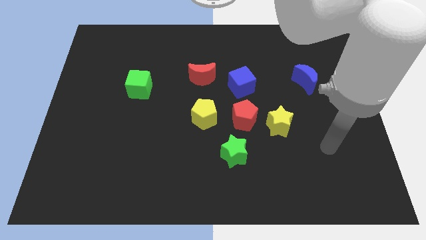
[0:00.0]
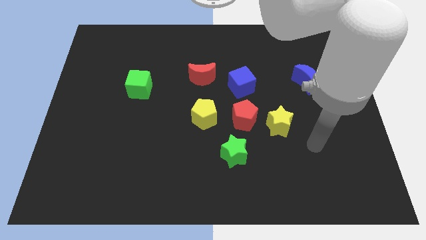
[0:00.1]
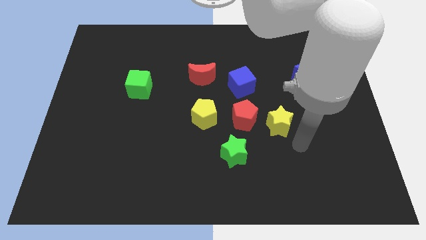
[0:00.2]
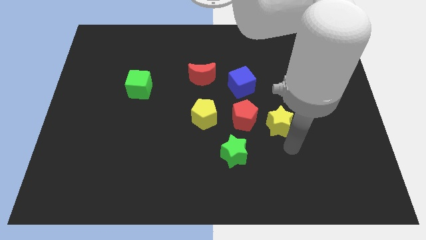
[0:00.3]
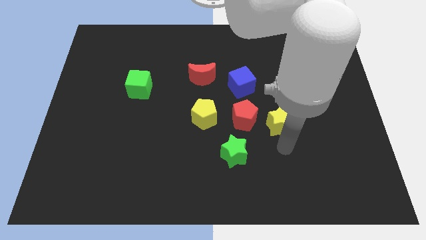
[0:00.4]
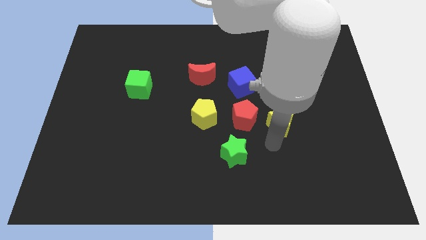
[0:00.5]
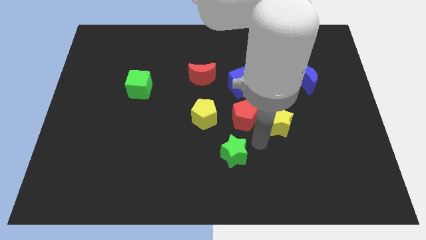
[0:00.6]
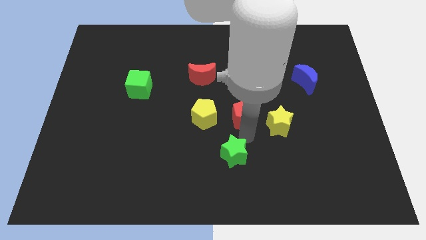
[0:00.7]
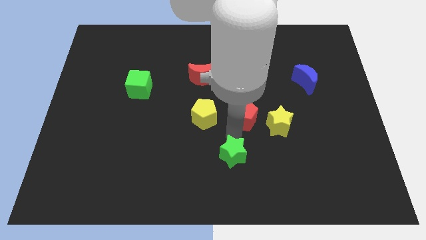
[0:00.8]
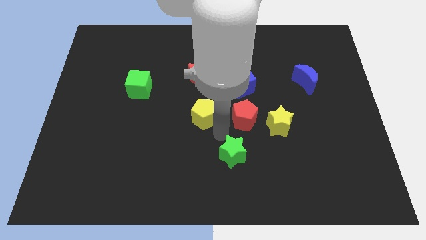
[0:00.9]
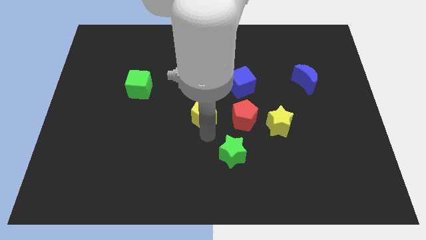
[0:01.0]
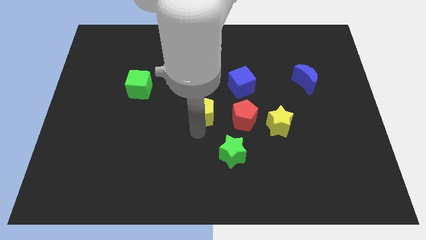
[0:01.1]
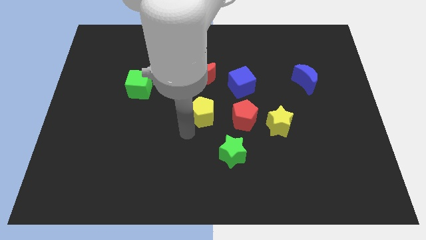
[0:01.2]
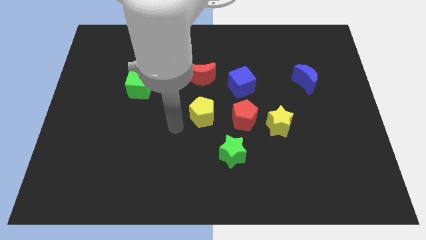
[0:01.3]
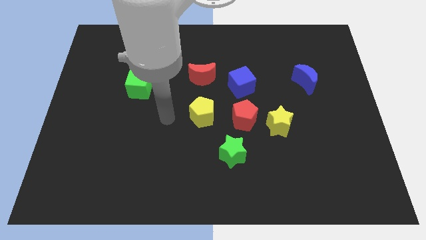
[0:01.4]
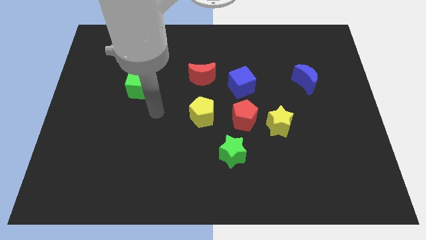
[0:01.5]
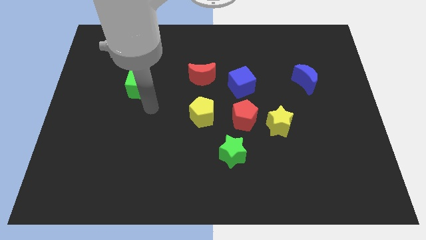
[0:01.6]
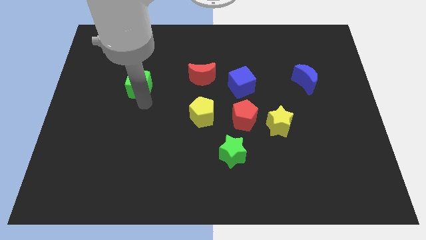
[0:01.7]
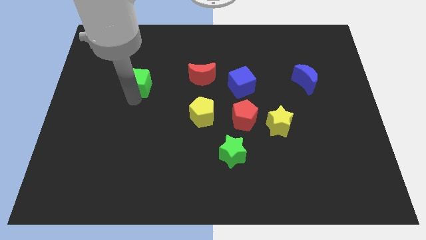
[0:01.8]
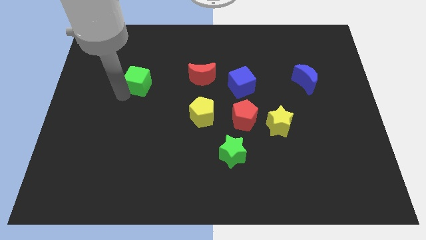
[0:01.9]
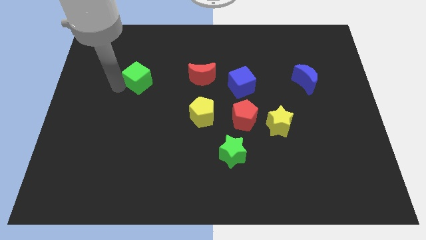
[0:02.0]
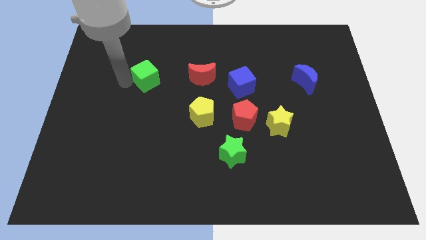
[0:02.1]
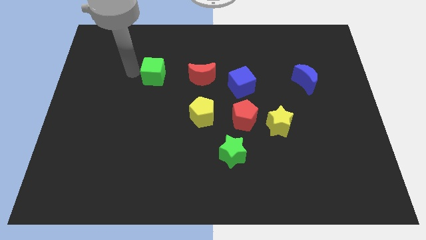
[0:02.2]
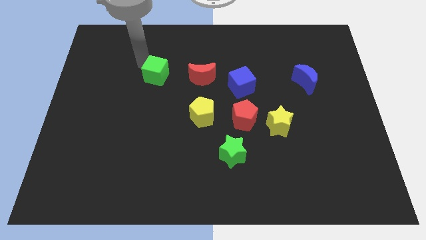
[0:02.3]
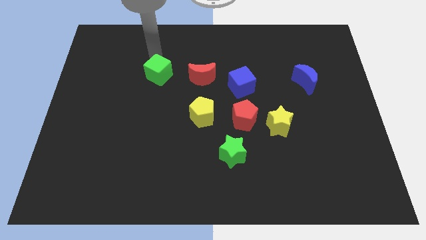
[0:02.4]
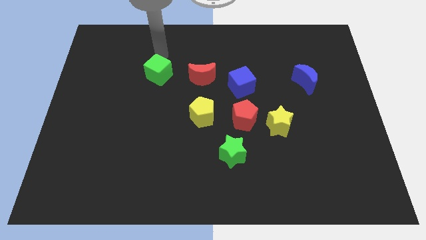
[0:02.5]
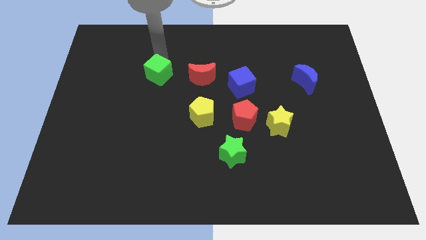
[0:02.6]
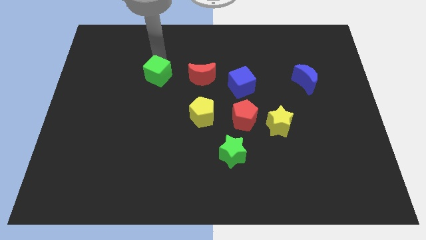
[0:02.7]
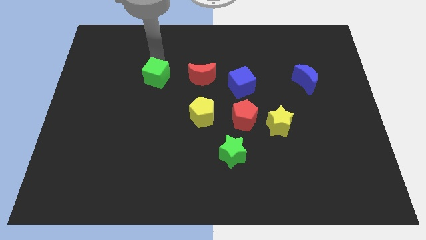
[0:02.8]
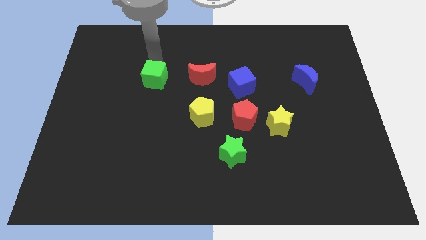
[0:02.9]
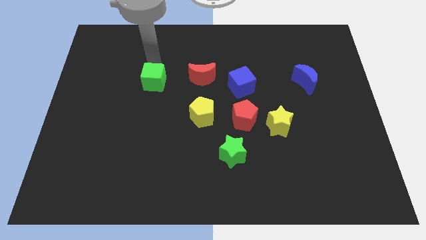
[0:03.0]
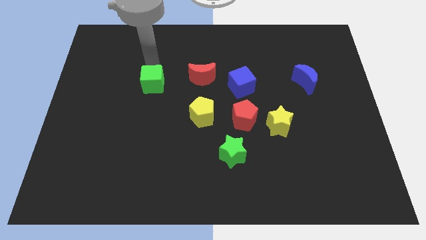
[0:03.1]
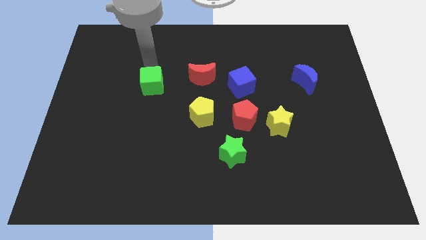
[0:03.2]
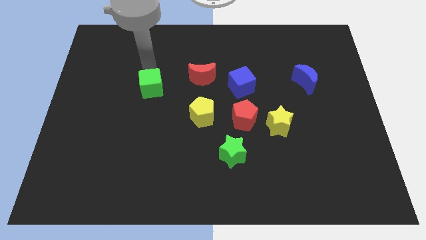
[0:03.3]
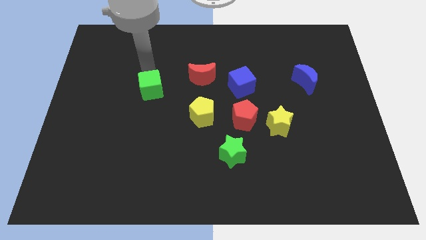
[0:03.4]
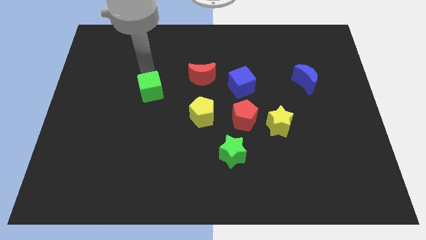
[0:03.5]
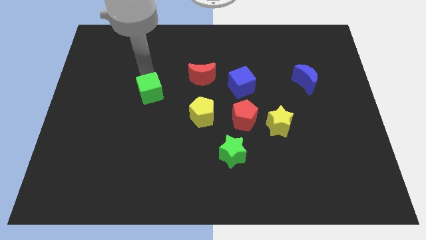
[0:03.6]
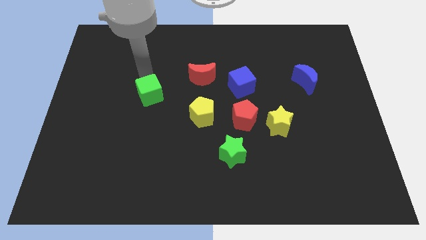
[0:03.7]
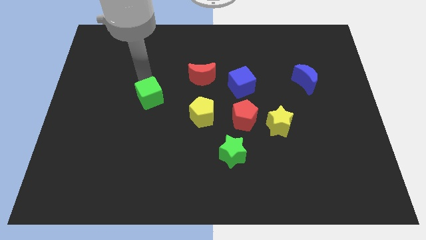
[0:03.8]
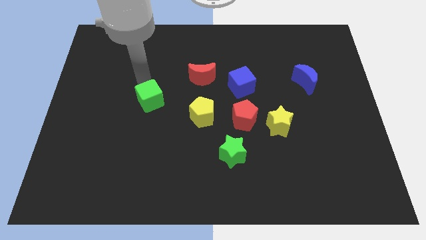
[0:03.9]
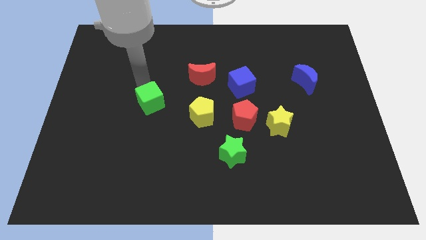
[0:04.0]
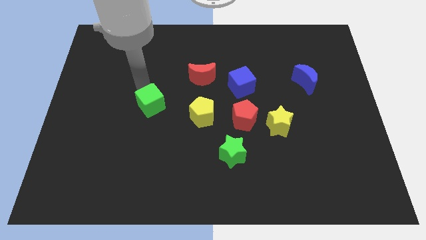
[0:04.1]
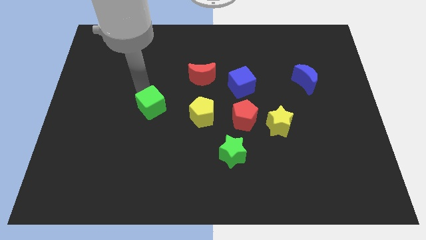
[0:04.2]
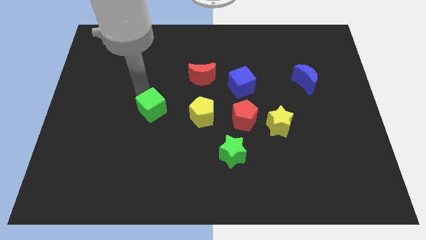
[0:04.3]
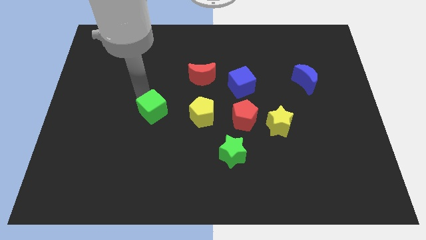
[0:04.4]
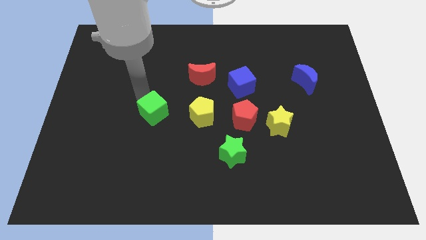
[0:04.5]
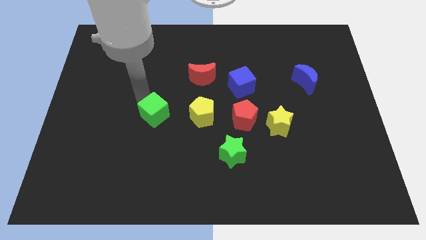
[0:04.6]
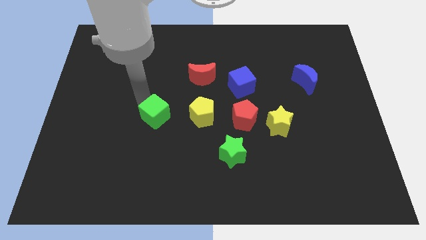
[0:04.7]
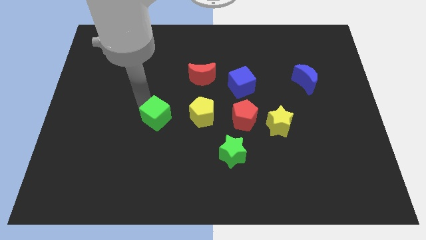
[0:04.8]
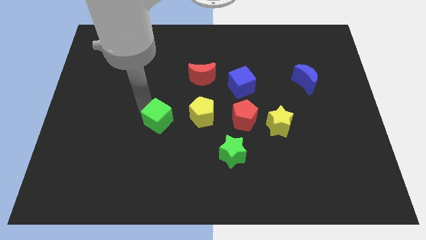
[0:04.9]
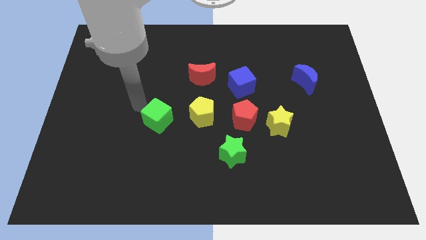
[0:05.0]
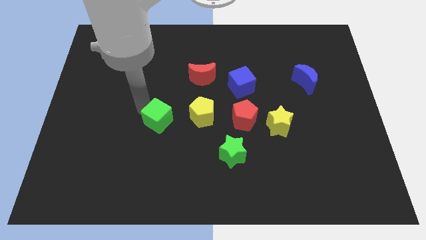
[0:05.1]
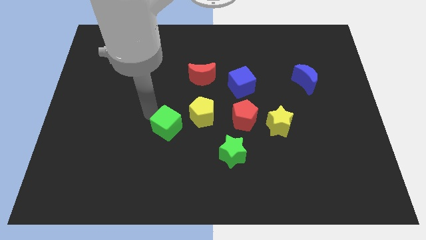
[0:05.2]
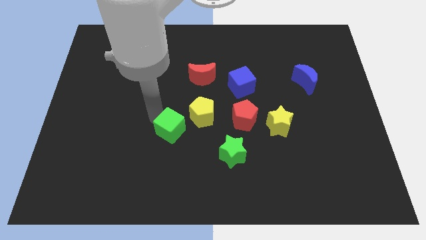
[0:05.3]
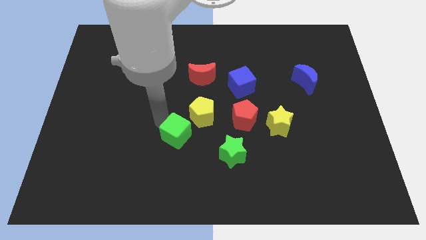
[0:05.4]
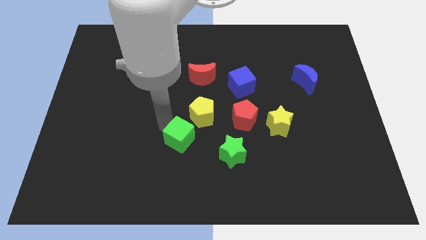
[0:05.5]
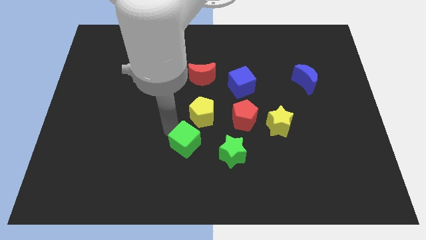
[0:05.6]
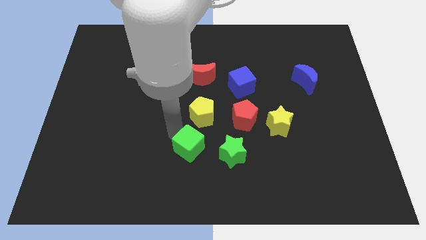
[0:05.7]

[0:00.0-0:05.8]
slide the green cube down and then to the right

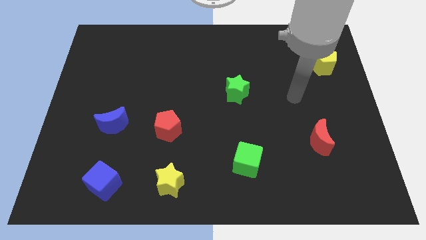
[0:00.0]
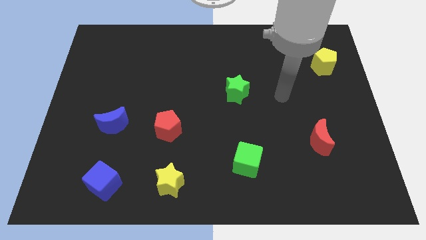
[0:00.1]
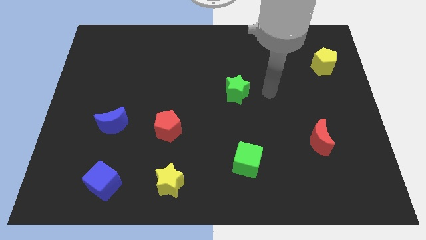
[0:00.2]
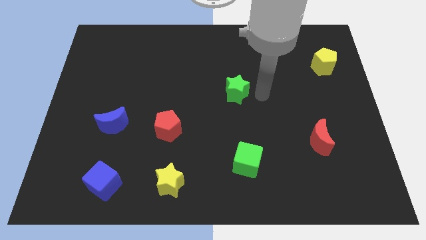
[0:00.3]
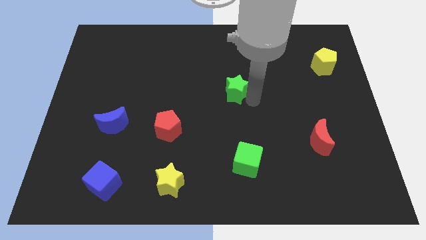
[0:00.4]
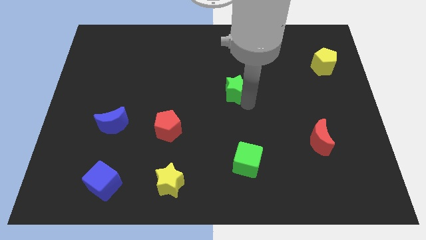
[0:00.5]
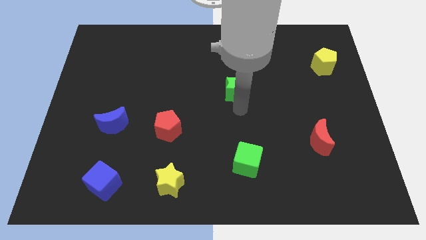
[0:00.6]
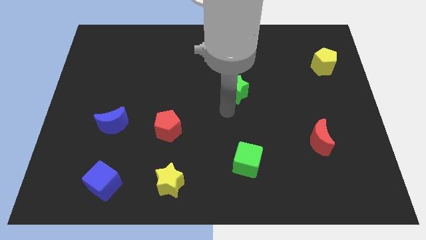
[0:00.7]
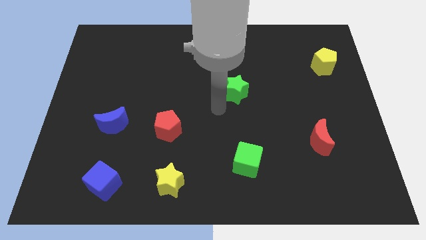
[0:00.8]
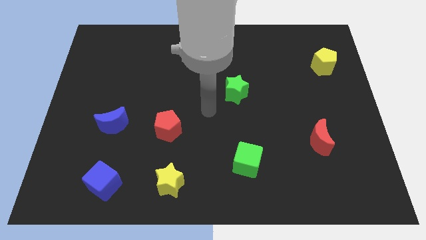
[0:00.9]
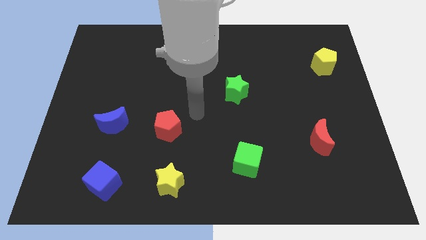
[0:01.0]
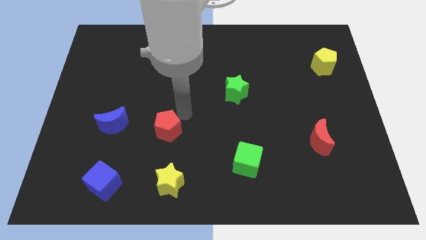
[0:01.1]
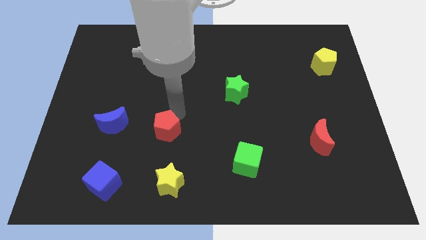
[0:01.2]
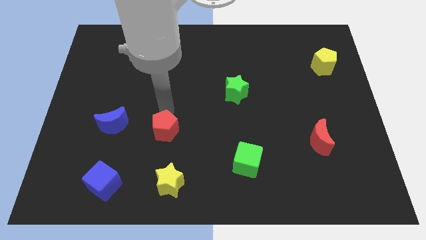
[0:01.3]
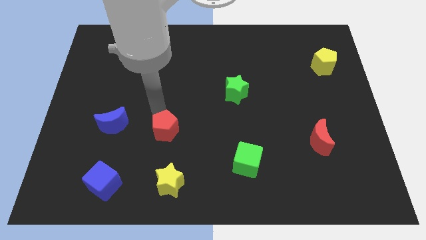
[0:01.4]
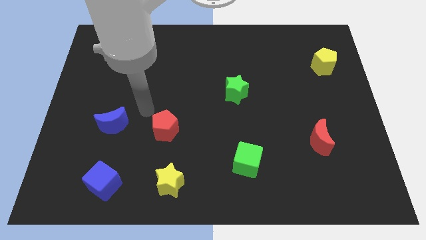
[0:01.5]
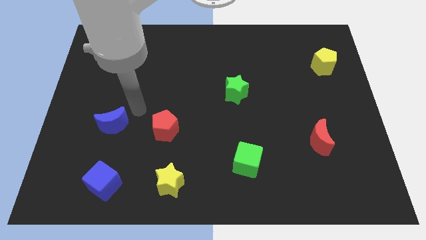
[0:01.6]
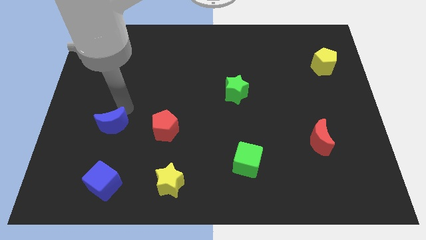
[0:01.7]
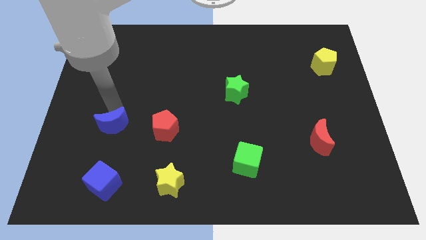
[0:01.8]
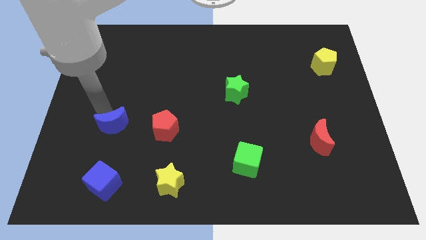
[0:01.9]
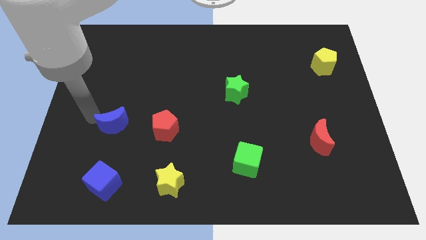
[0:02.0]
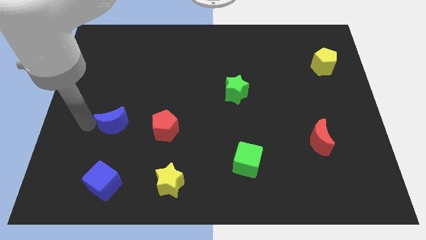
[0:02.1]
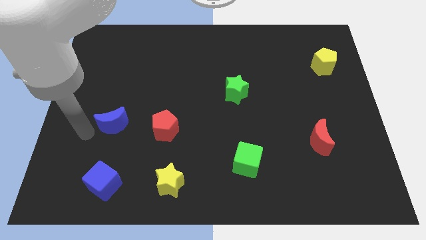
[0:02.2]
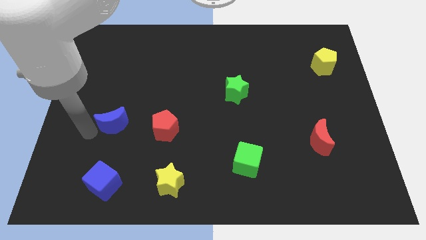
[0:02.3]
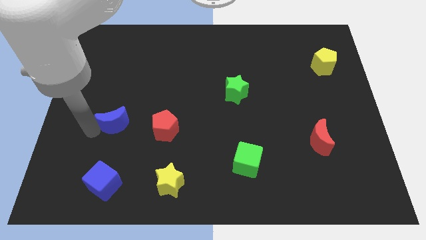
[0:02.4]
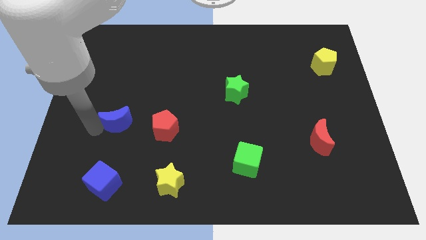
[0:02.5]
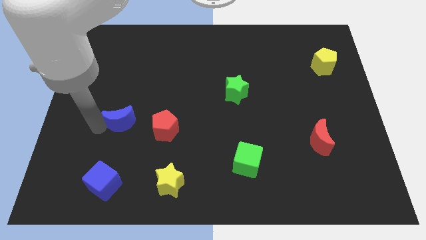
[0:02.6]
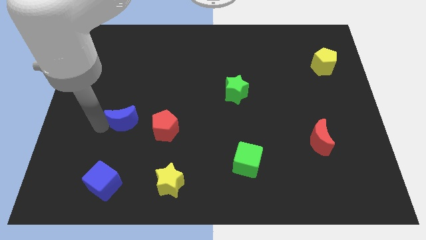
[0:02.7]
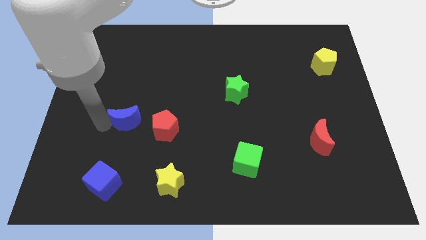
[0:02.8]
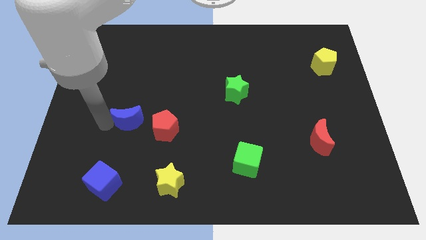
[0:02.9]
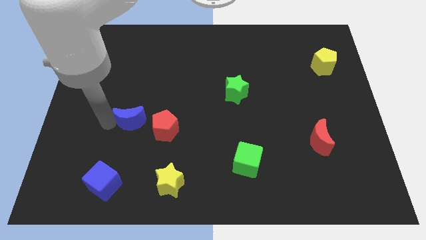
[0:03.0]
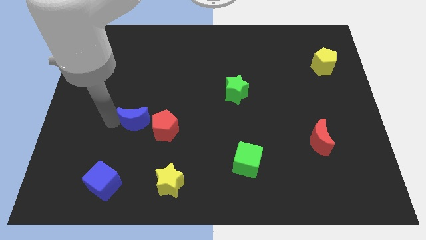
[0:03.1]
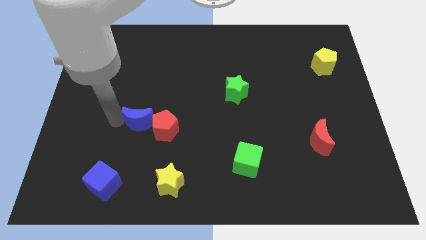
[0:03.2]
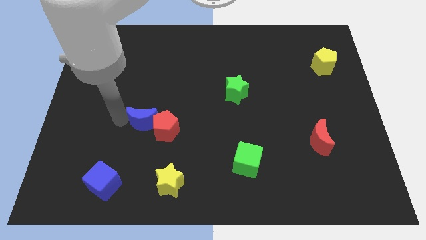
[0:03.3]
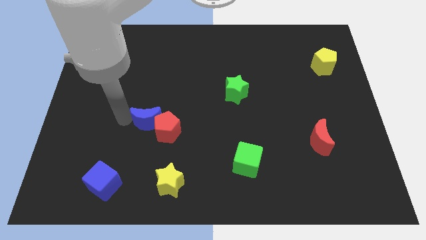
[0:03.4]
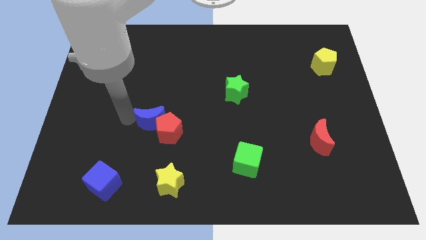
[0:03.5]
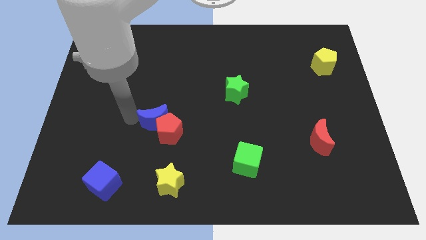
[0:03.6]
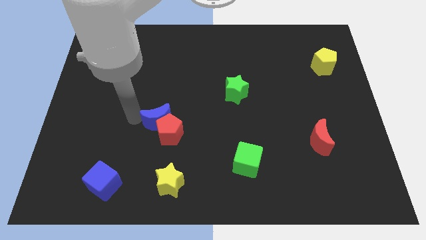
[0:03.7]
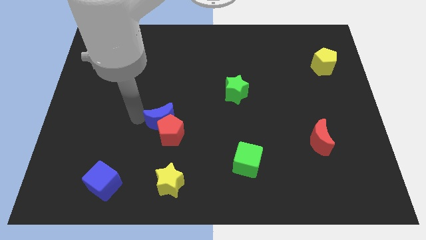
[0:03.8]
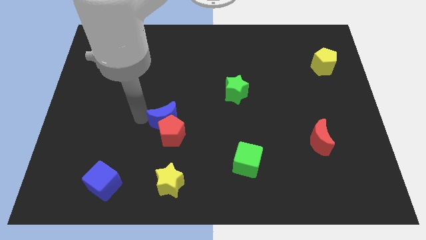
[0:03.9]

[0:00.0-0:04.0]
move the blue moon slightly upwards and right diagonally
